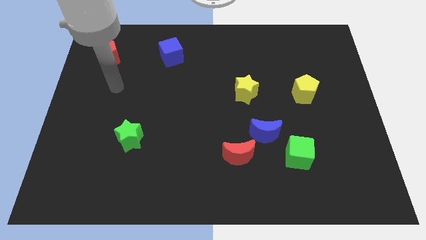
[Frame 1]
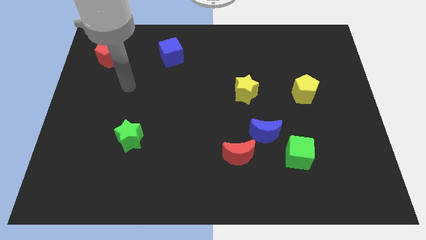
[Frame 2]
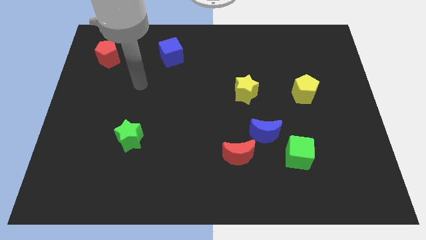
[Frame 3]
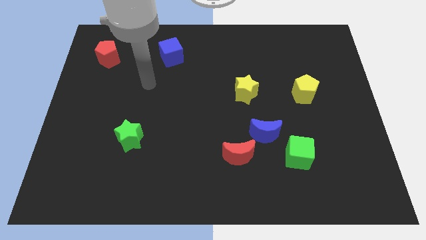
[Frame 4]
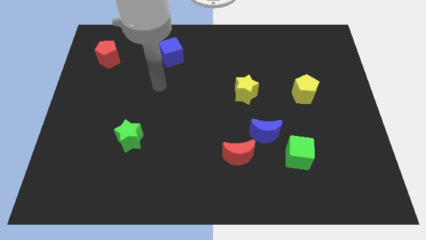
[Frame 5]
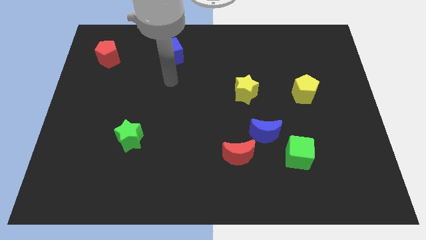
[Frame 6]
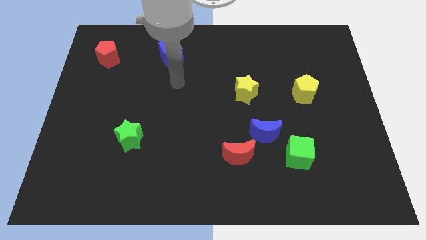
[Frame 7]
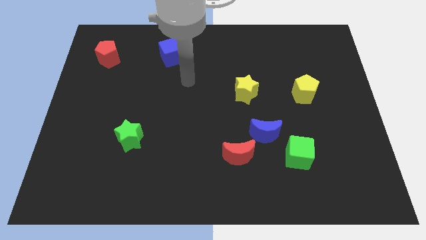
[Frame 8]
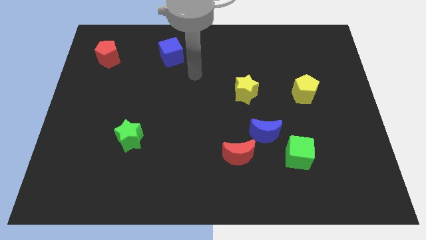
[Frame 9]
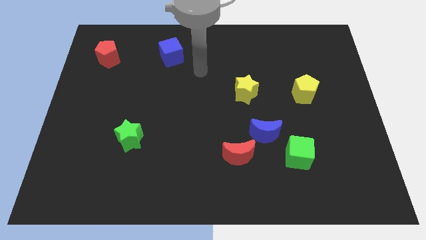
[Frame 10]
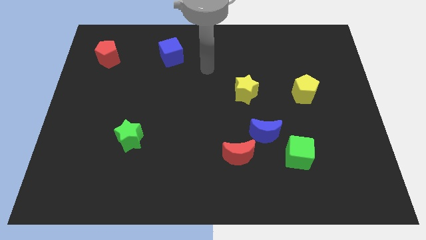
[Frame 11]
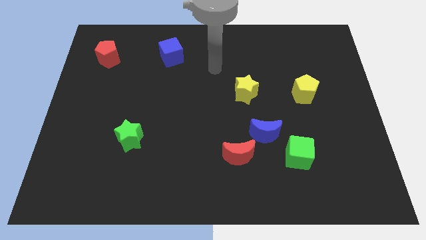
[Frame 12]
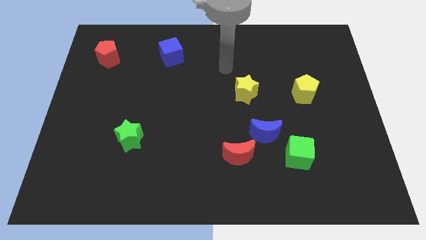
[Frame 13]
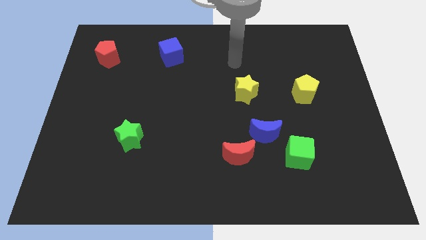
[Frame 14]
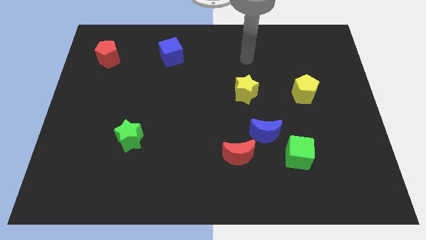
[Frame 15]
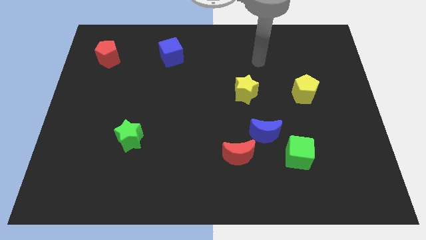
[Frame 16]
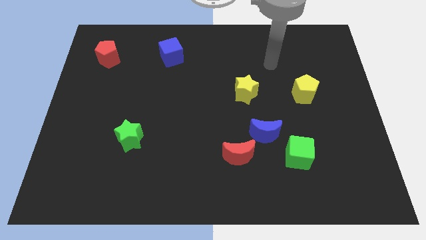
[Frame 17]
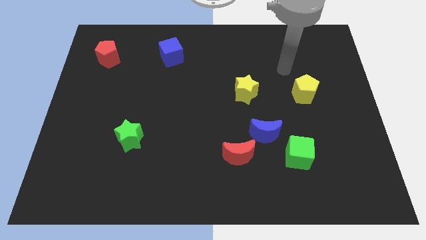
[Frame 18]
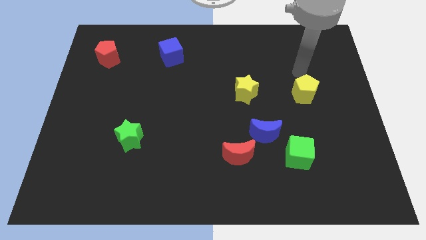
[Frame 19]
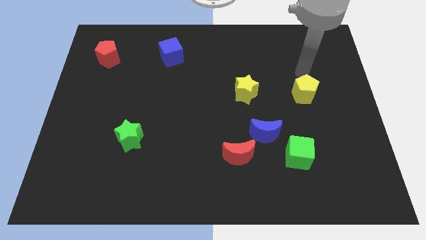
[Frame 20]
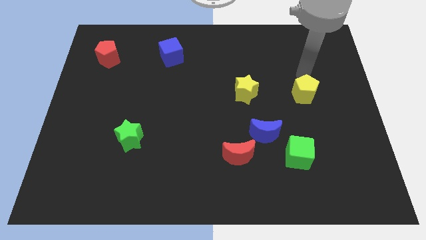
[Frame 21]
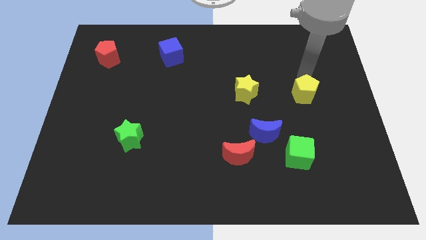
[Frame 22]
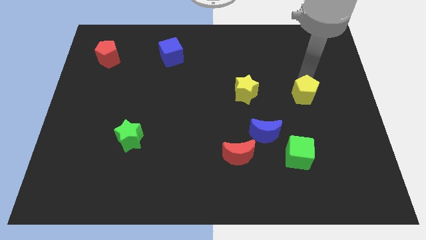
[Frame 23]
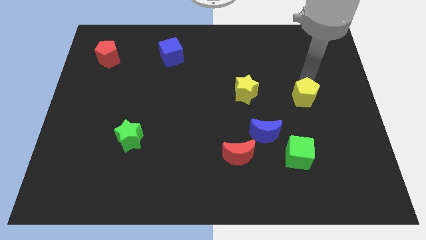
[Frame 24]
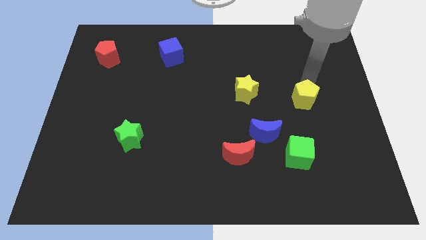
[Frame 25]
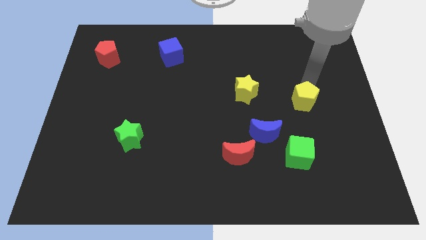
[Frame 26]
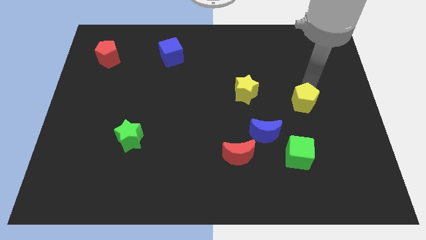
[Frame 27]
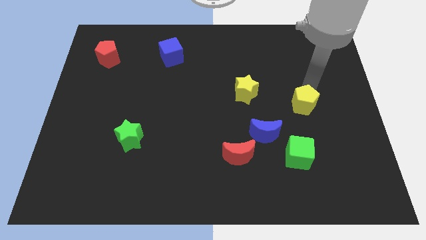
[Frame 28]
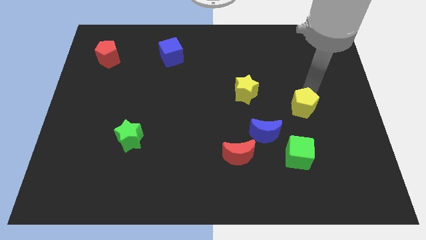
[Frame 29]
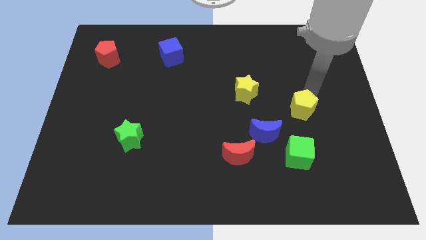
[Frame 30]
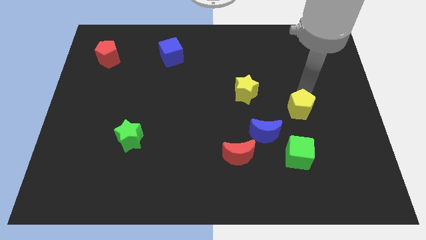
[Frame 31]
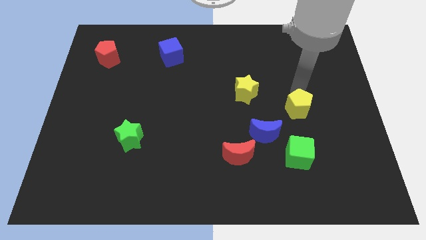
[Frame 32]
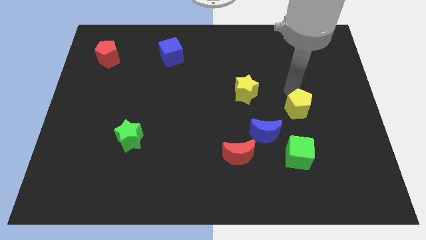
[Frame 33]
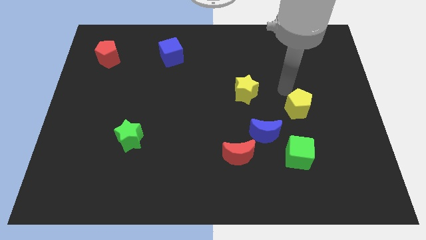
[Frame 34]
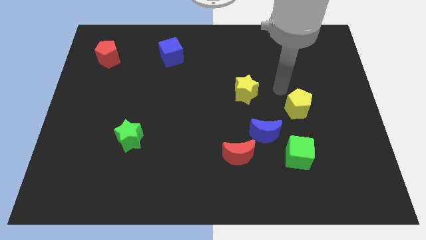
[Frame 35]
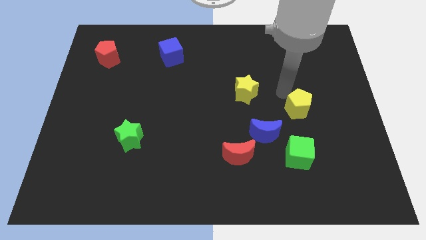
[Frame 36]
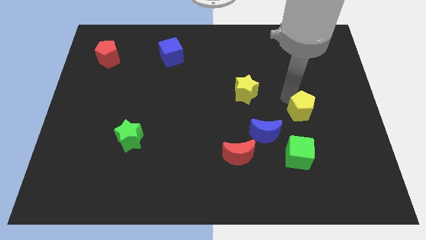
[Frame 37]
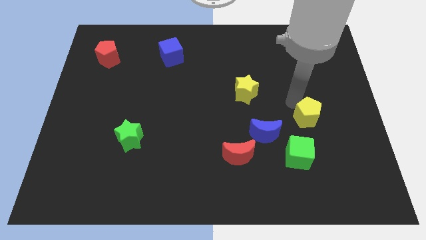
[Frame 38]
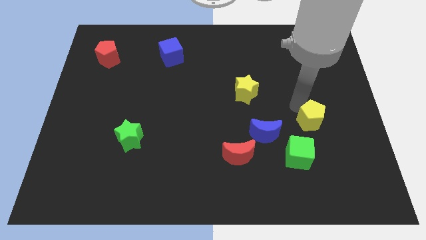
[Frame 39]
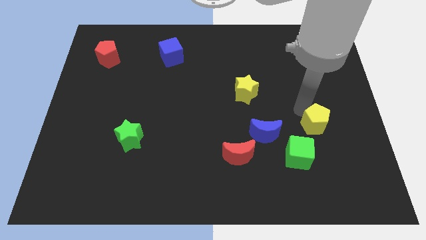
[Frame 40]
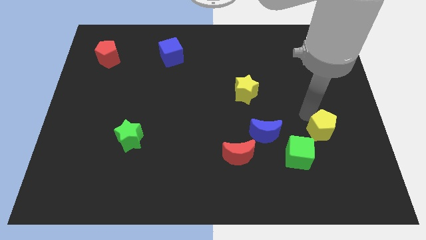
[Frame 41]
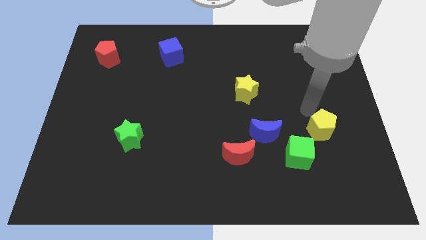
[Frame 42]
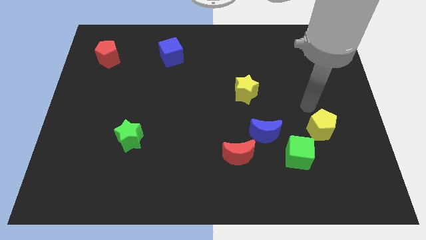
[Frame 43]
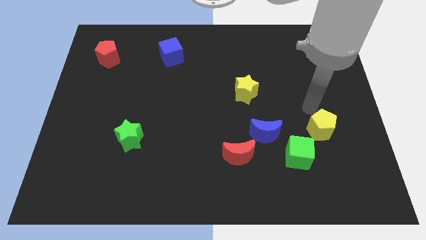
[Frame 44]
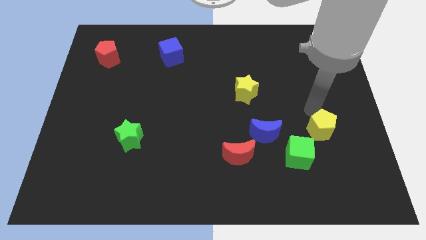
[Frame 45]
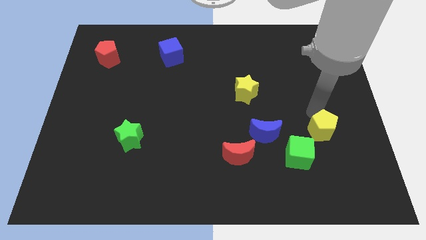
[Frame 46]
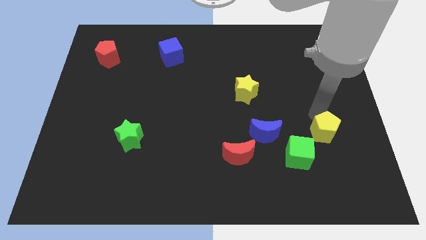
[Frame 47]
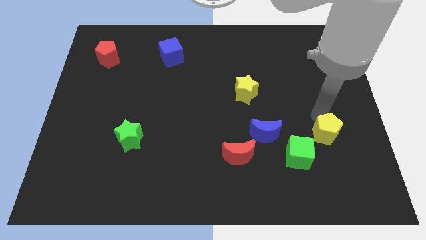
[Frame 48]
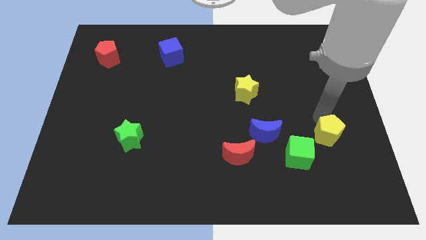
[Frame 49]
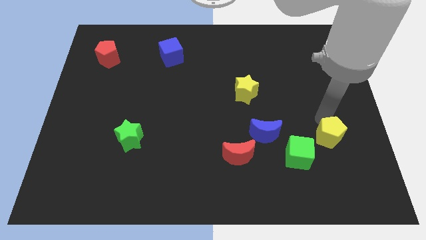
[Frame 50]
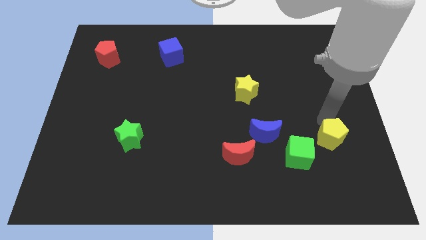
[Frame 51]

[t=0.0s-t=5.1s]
put the yellow pentagon to the right side of the green cube

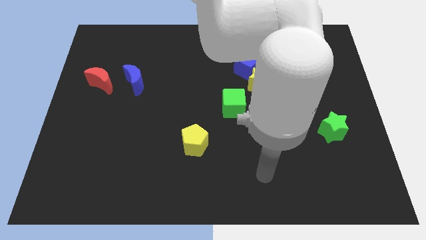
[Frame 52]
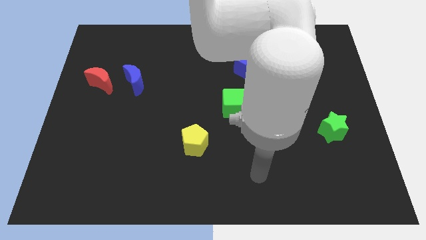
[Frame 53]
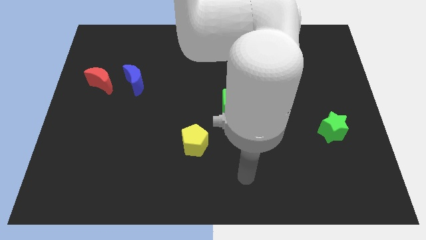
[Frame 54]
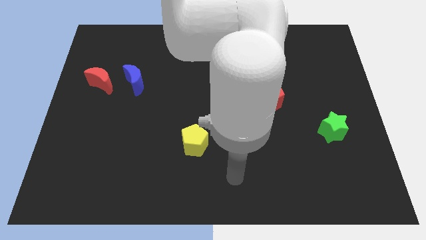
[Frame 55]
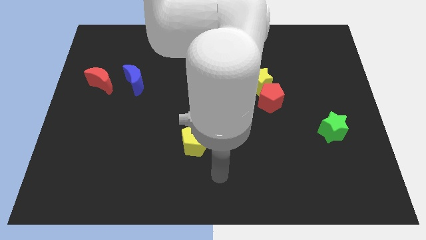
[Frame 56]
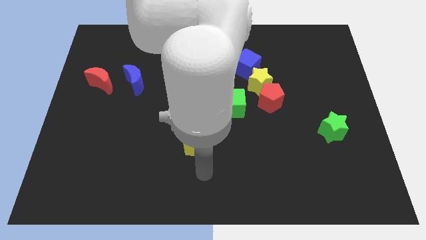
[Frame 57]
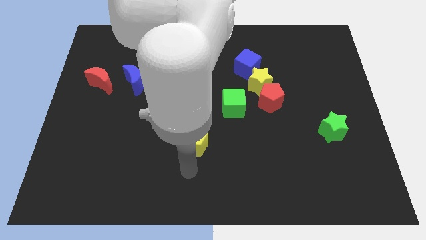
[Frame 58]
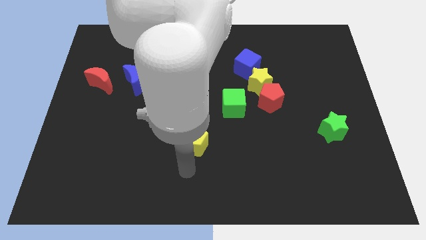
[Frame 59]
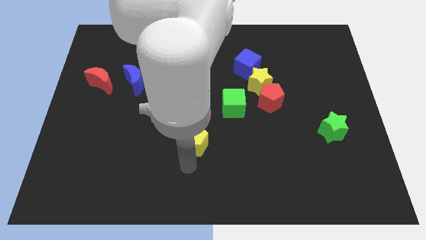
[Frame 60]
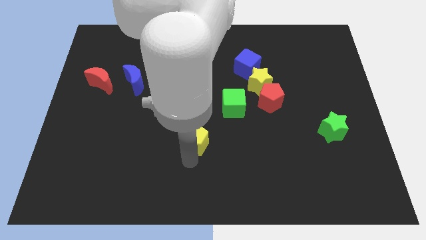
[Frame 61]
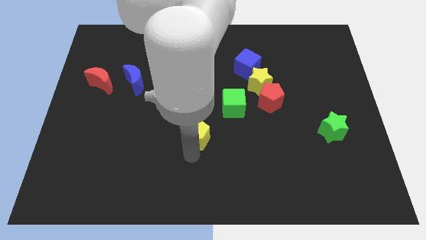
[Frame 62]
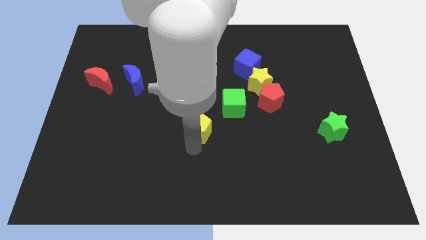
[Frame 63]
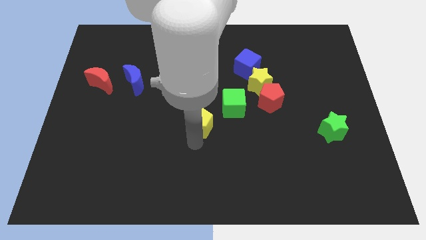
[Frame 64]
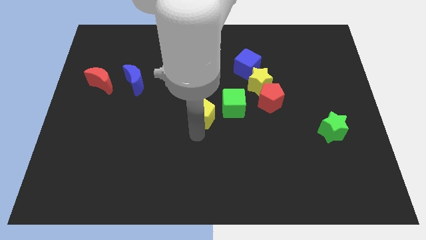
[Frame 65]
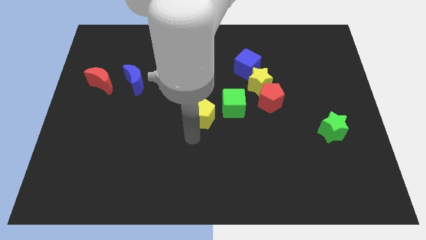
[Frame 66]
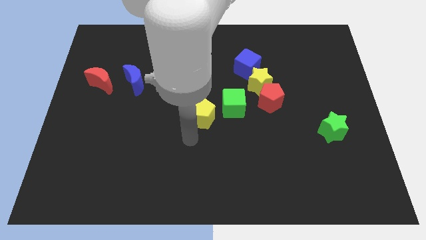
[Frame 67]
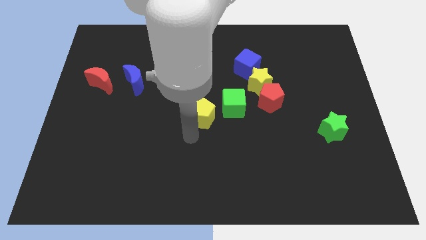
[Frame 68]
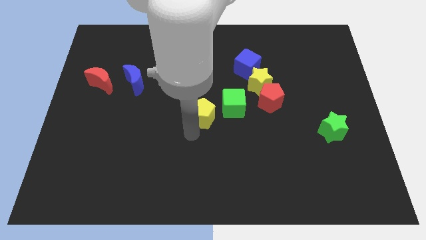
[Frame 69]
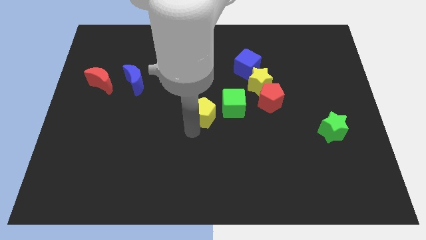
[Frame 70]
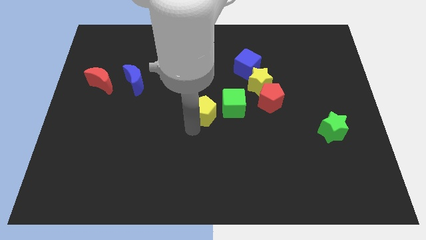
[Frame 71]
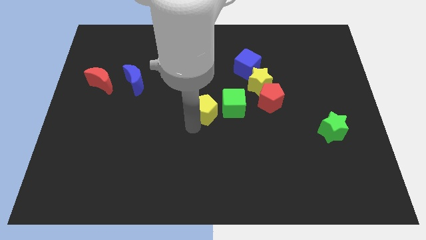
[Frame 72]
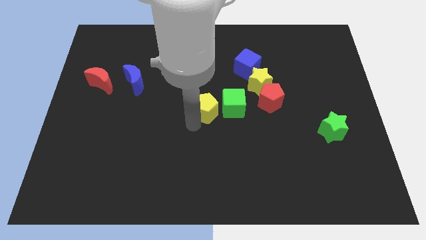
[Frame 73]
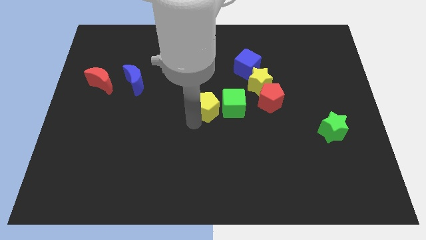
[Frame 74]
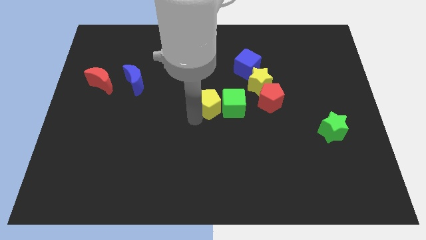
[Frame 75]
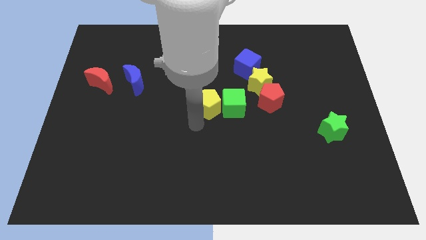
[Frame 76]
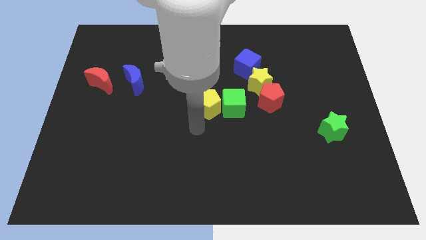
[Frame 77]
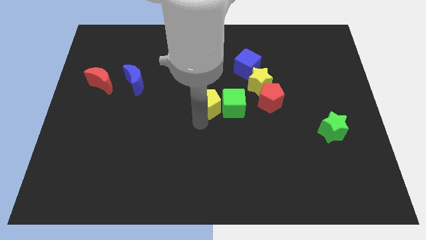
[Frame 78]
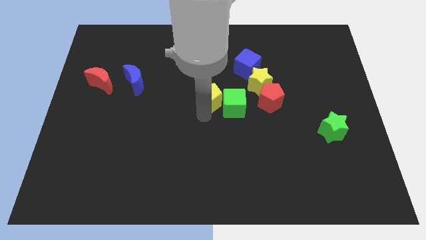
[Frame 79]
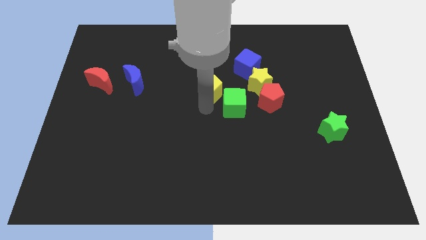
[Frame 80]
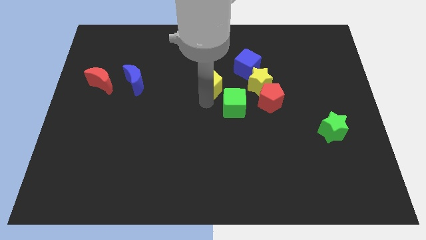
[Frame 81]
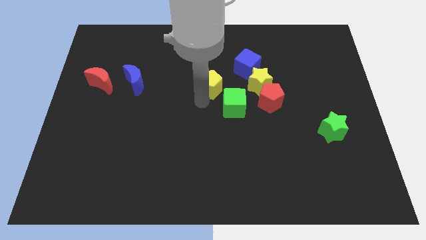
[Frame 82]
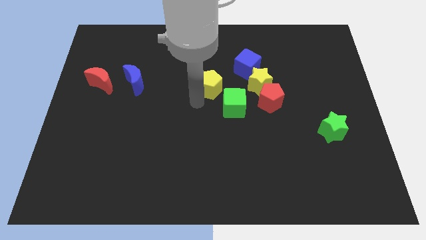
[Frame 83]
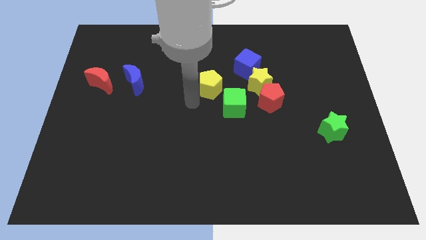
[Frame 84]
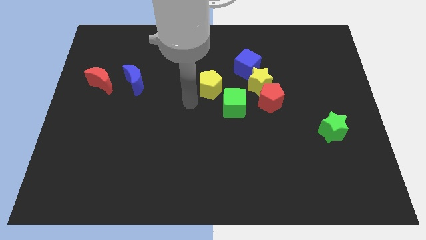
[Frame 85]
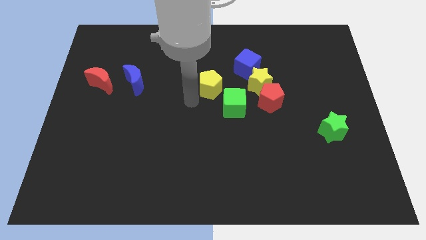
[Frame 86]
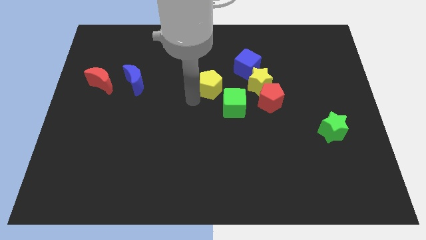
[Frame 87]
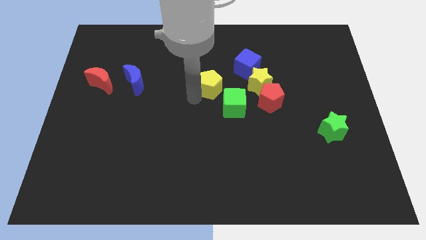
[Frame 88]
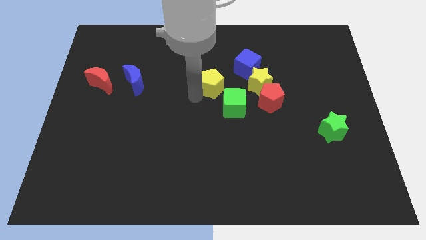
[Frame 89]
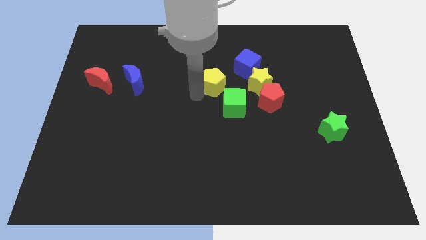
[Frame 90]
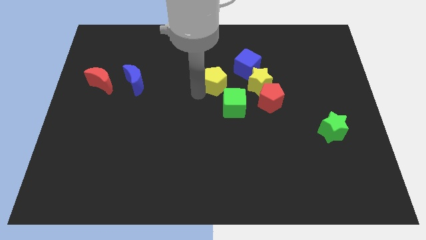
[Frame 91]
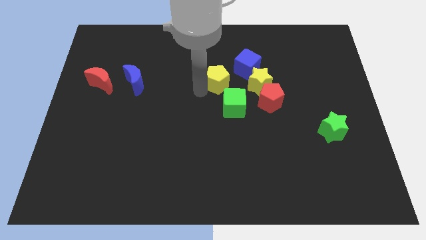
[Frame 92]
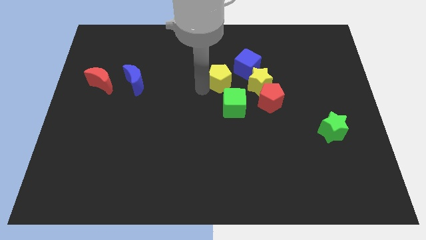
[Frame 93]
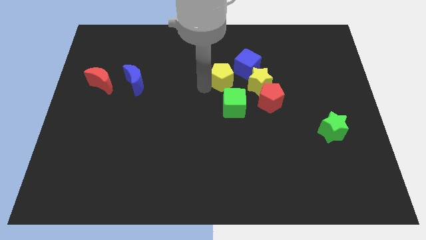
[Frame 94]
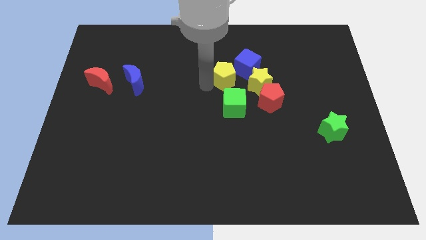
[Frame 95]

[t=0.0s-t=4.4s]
push the yellow pentagon to the top left side of the yellow star
